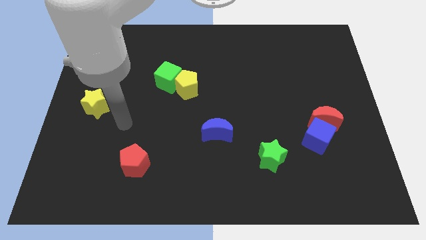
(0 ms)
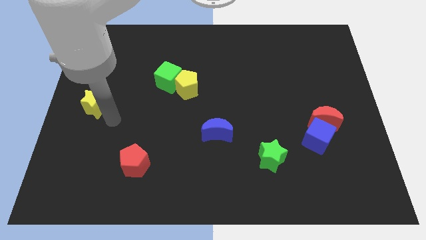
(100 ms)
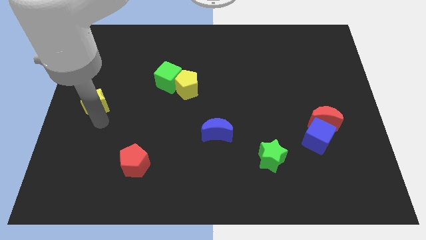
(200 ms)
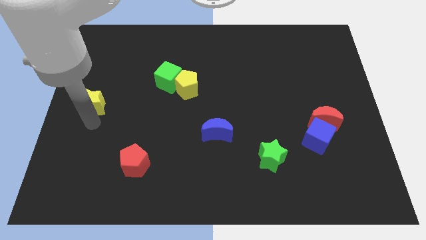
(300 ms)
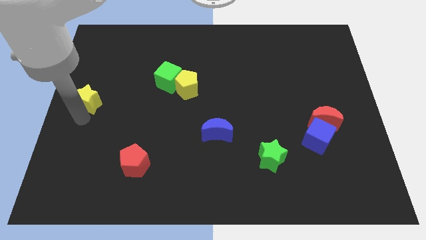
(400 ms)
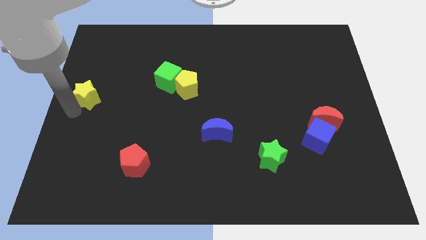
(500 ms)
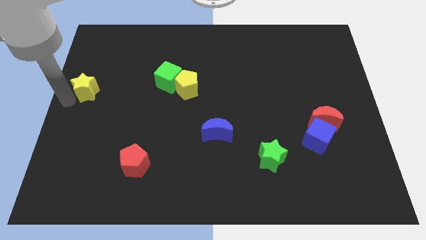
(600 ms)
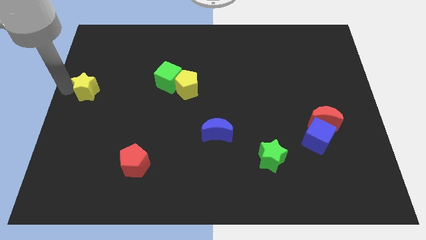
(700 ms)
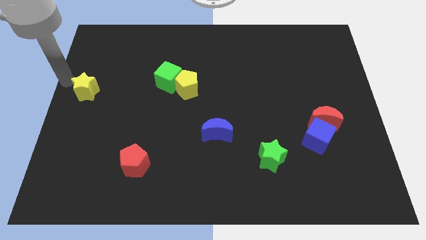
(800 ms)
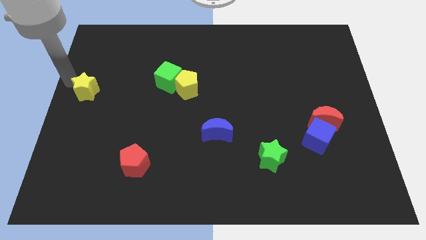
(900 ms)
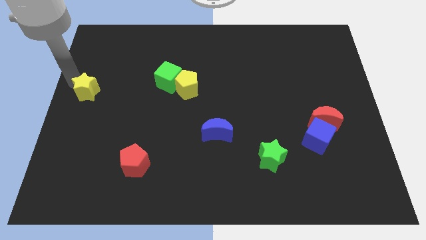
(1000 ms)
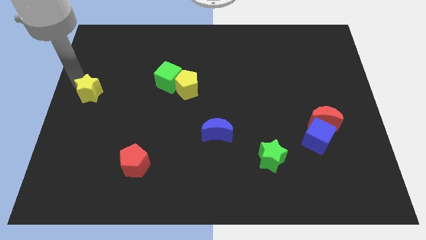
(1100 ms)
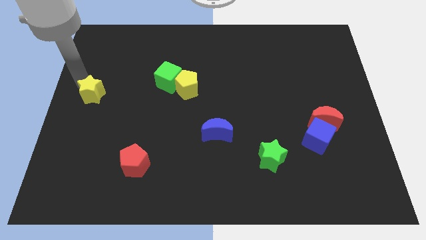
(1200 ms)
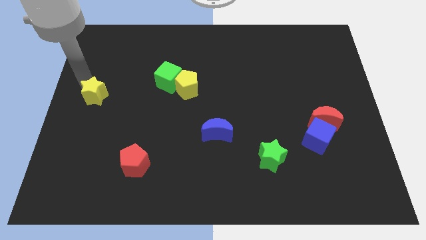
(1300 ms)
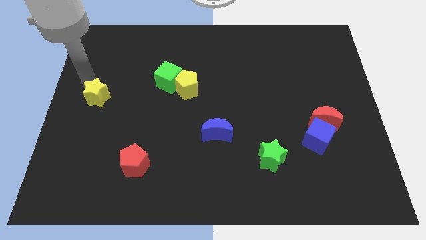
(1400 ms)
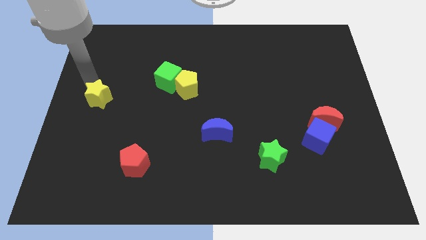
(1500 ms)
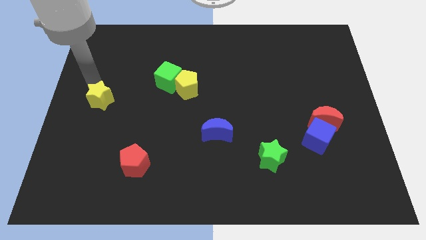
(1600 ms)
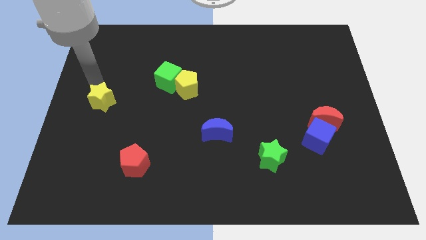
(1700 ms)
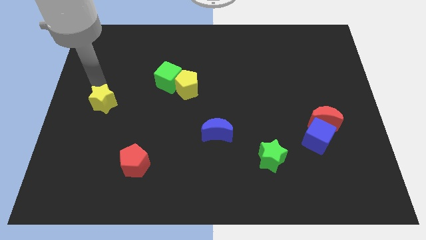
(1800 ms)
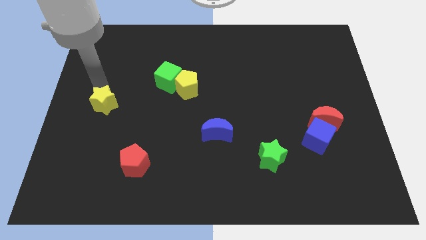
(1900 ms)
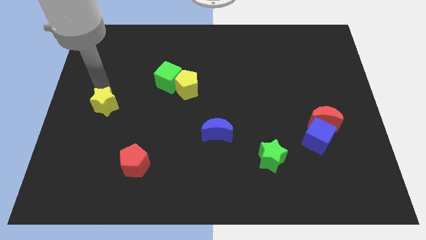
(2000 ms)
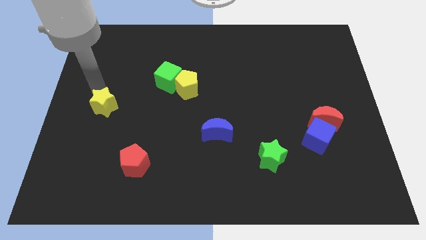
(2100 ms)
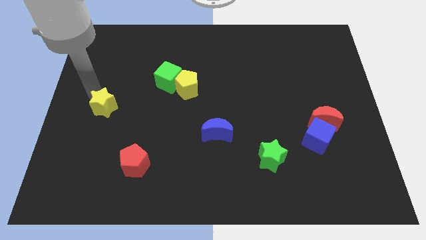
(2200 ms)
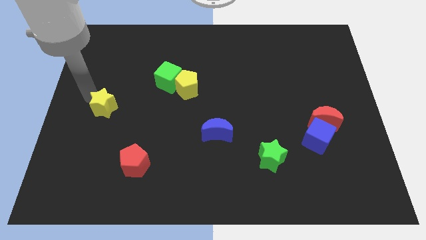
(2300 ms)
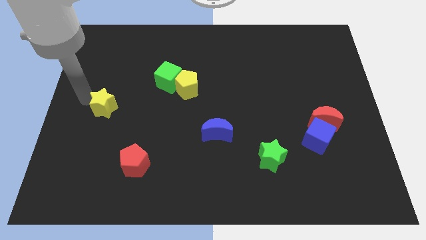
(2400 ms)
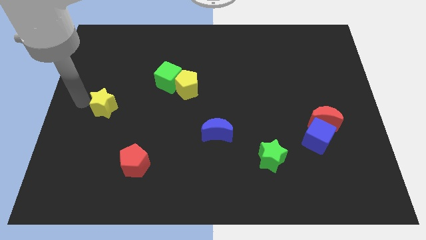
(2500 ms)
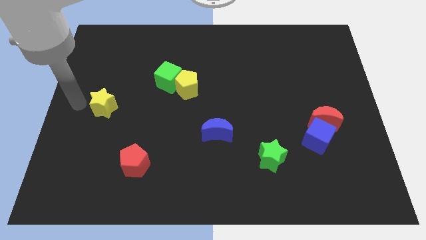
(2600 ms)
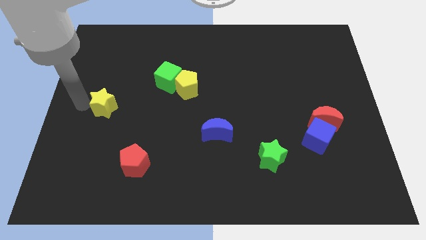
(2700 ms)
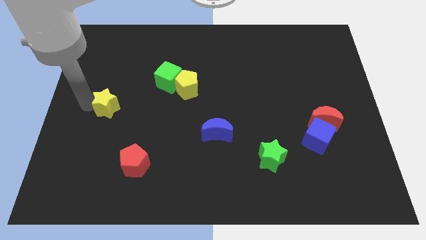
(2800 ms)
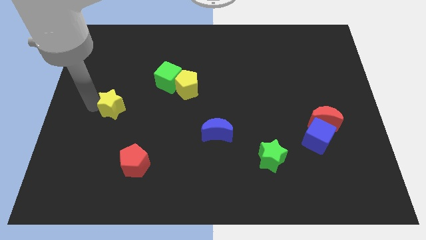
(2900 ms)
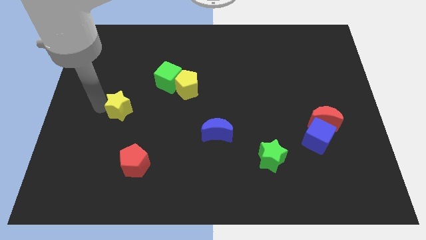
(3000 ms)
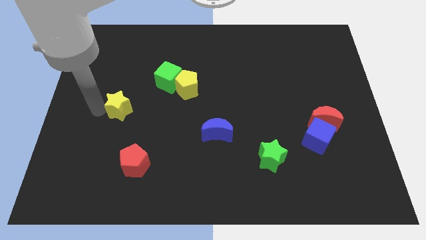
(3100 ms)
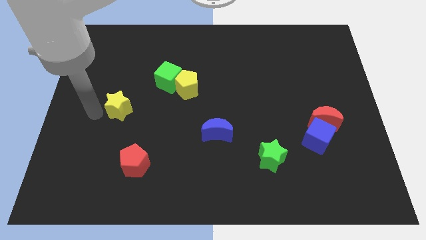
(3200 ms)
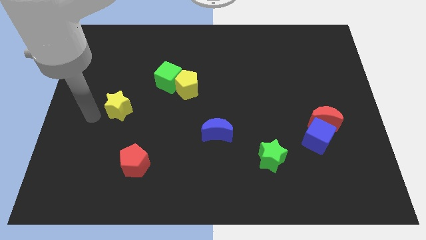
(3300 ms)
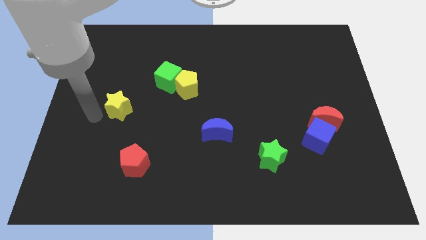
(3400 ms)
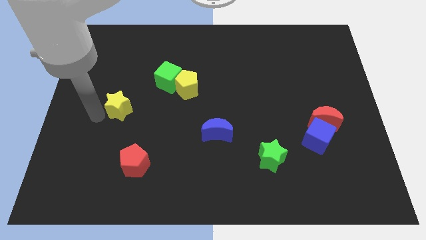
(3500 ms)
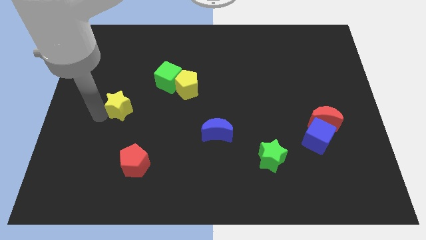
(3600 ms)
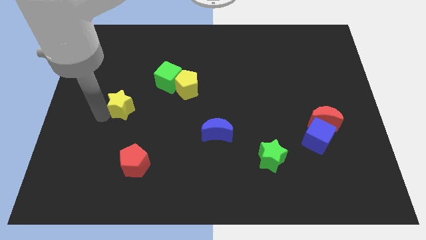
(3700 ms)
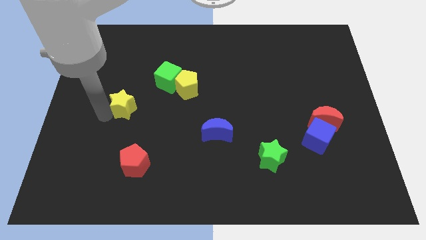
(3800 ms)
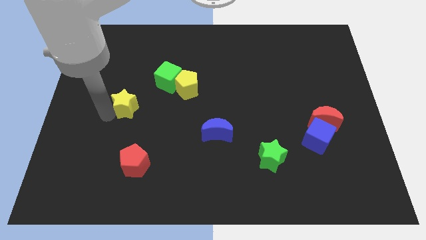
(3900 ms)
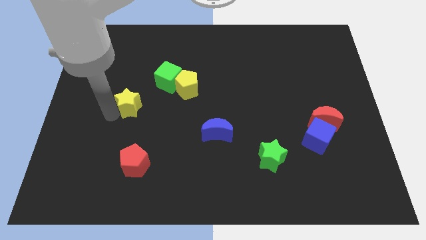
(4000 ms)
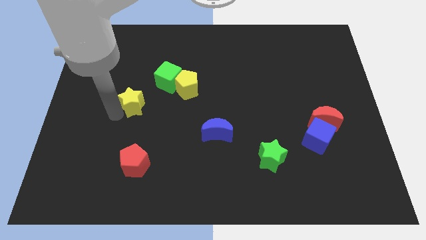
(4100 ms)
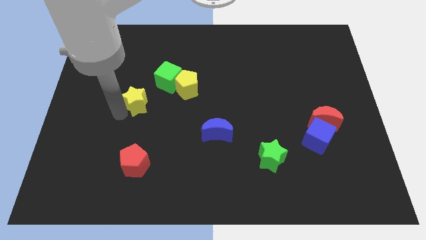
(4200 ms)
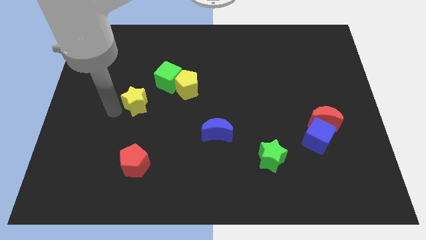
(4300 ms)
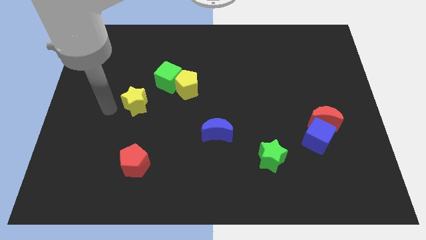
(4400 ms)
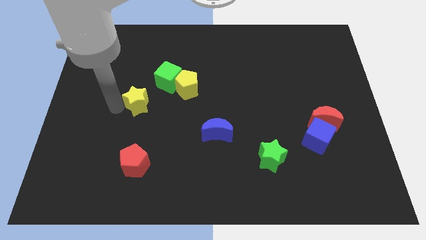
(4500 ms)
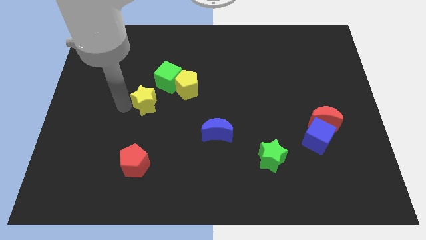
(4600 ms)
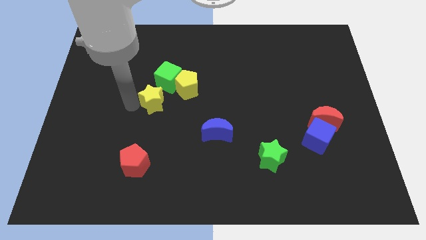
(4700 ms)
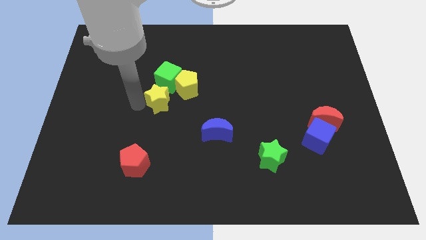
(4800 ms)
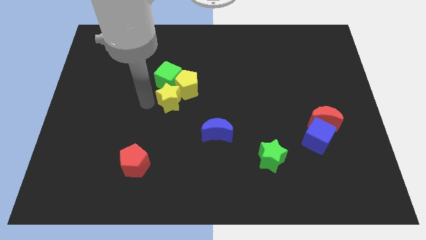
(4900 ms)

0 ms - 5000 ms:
move the yellow star close to the yellow pentagon

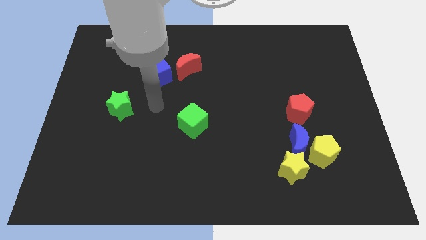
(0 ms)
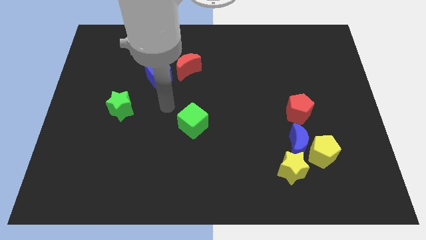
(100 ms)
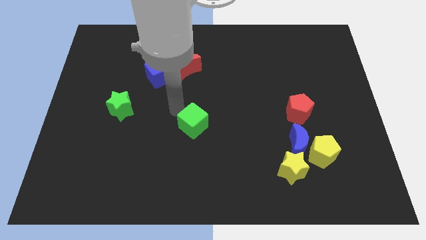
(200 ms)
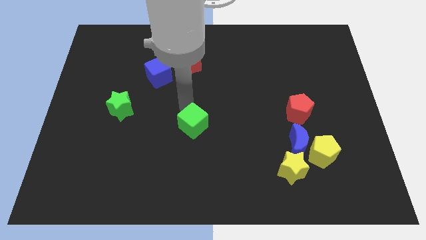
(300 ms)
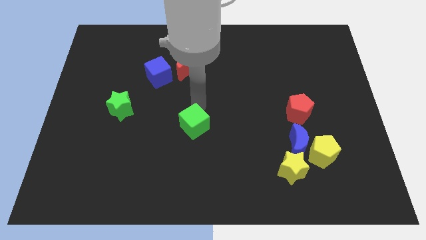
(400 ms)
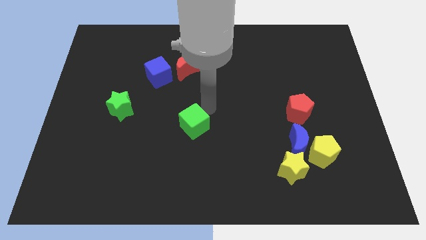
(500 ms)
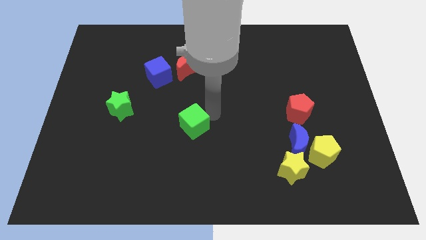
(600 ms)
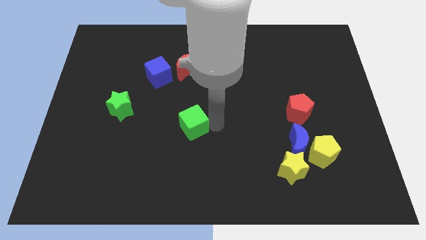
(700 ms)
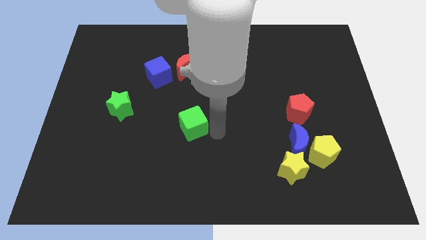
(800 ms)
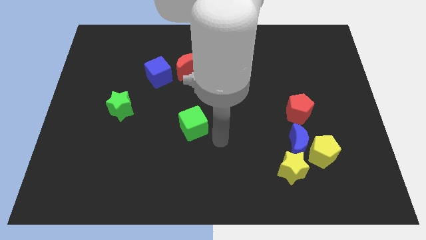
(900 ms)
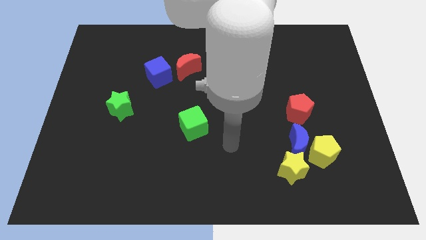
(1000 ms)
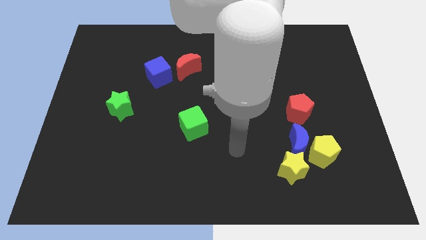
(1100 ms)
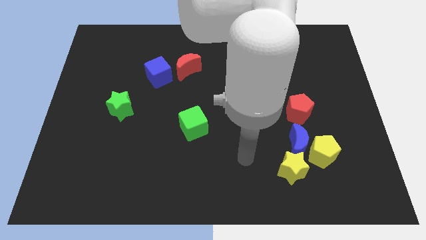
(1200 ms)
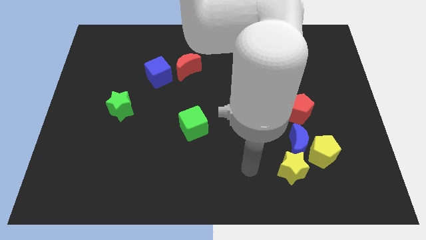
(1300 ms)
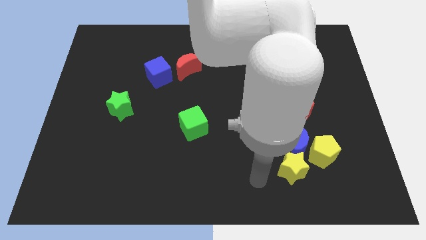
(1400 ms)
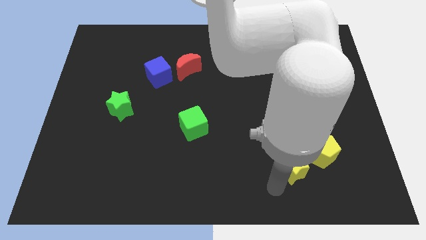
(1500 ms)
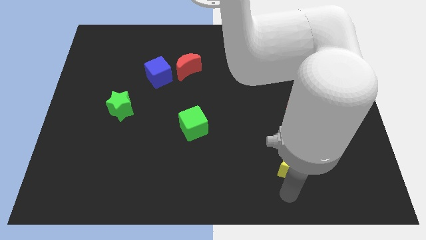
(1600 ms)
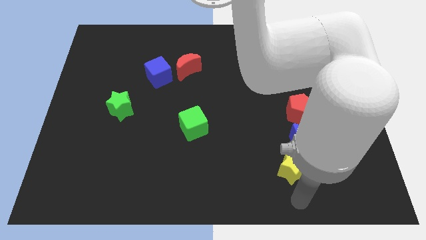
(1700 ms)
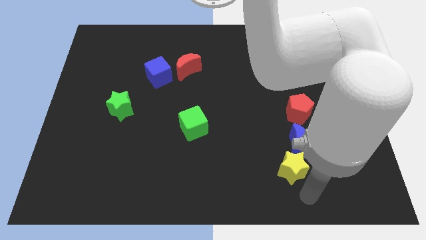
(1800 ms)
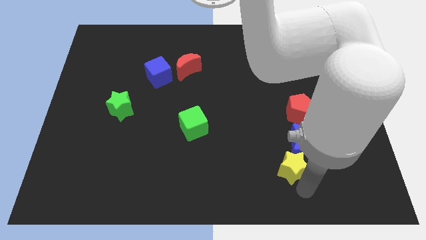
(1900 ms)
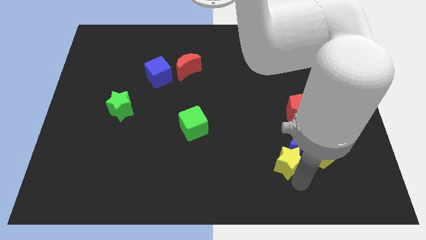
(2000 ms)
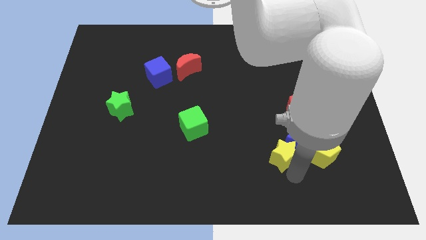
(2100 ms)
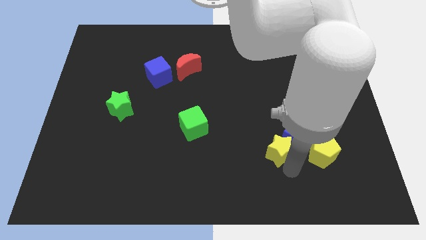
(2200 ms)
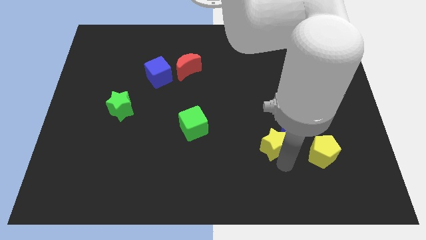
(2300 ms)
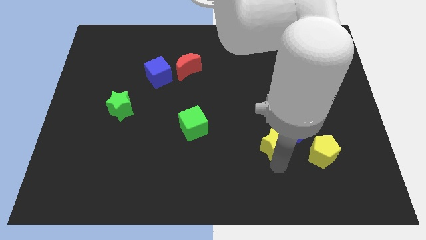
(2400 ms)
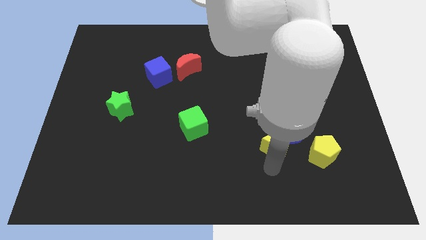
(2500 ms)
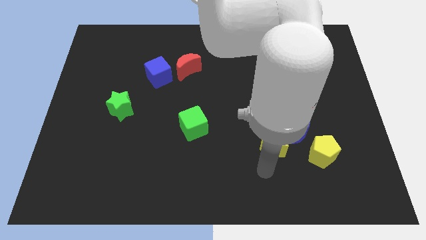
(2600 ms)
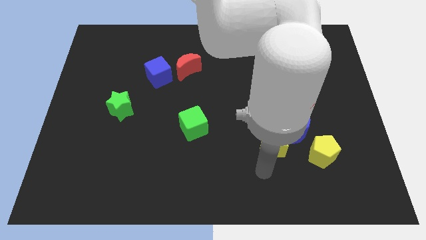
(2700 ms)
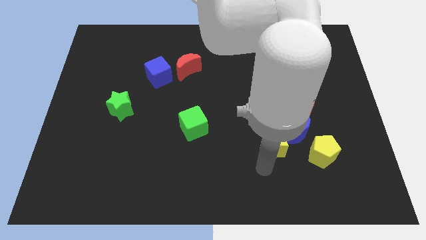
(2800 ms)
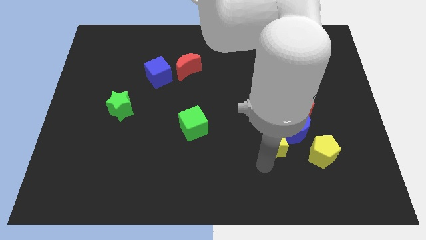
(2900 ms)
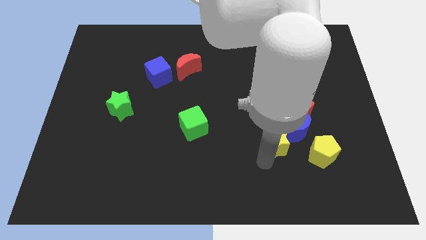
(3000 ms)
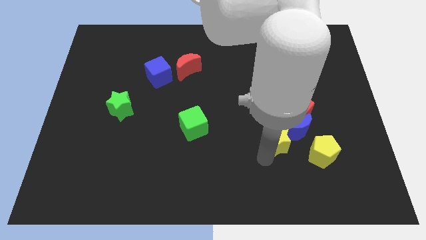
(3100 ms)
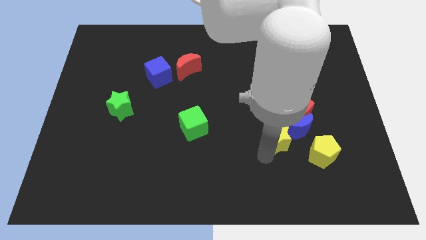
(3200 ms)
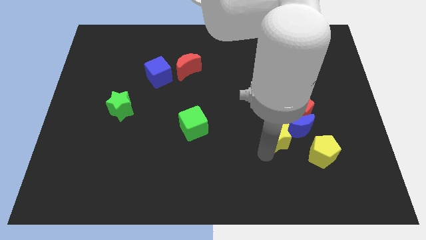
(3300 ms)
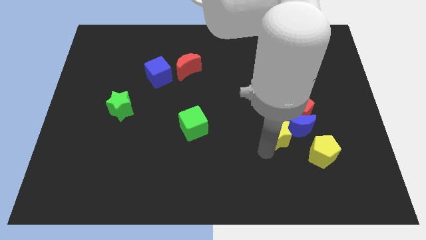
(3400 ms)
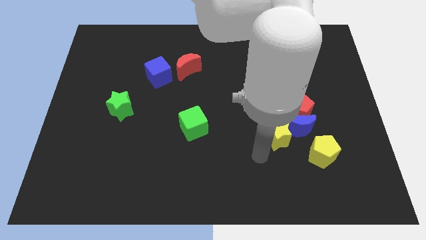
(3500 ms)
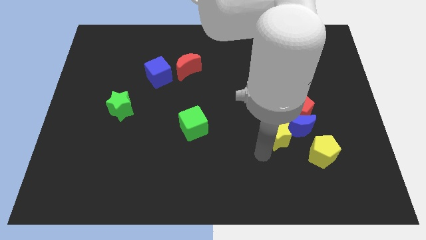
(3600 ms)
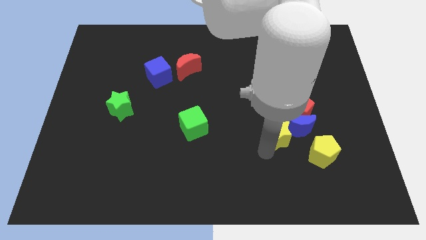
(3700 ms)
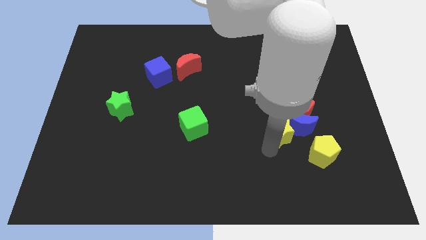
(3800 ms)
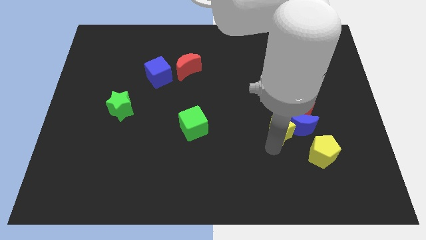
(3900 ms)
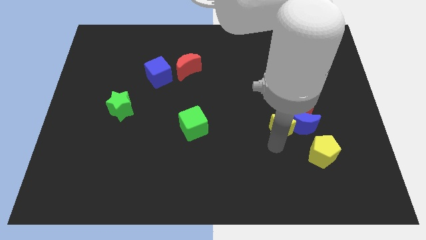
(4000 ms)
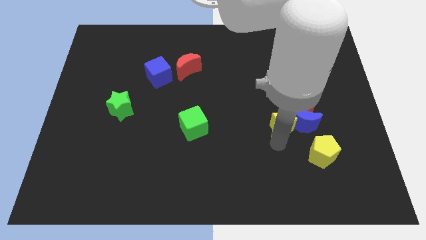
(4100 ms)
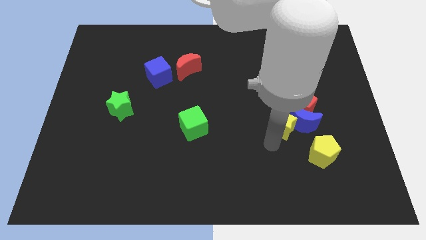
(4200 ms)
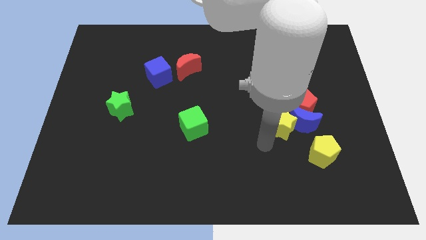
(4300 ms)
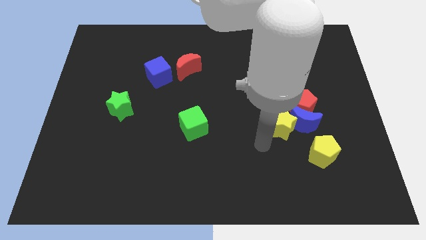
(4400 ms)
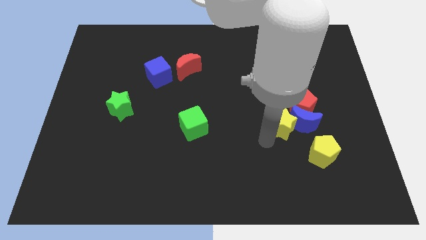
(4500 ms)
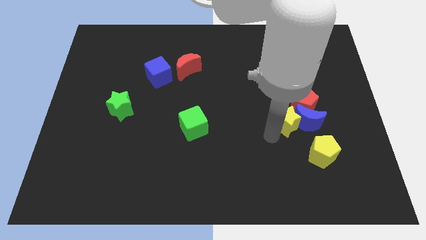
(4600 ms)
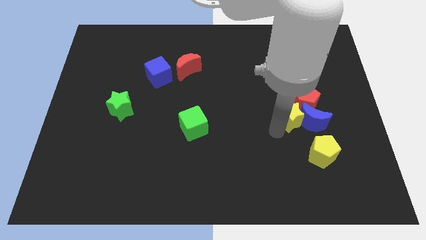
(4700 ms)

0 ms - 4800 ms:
move the yellow star to the red pentagon
